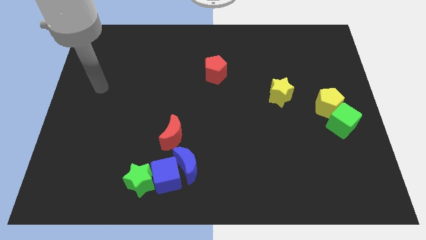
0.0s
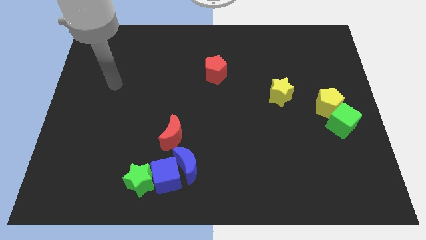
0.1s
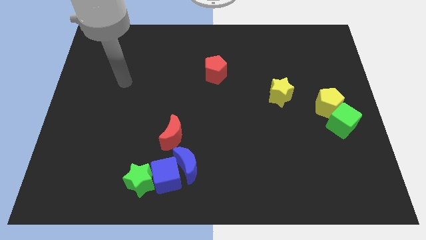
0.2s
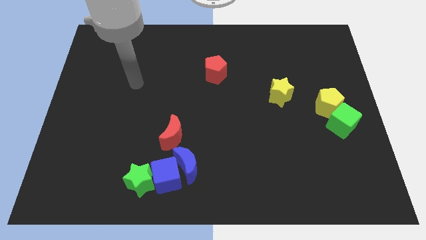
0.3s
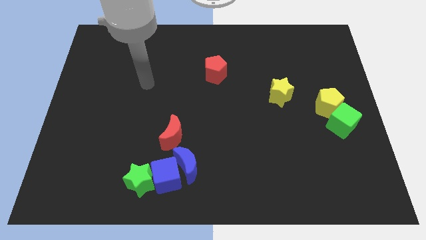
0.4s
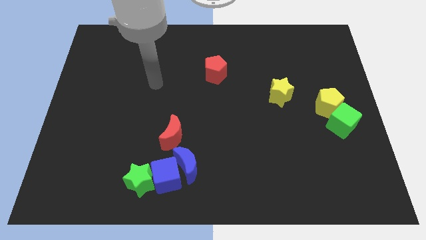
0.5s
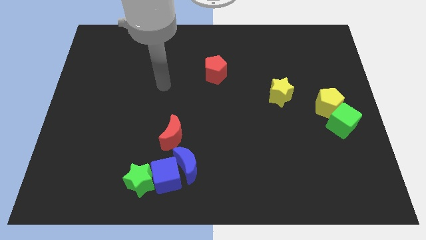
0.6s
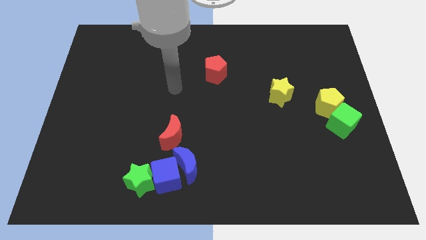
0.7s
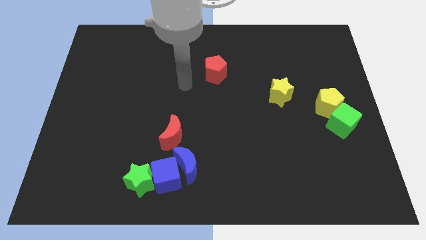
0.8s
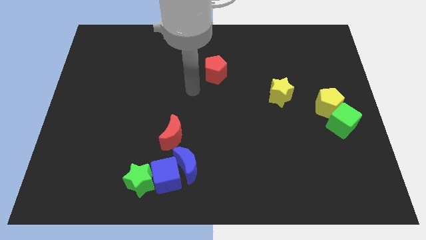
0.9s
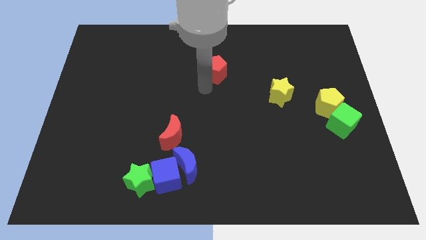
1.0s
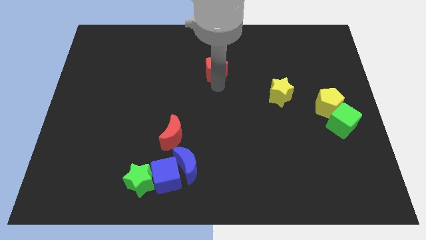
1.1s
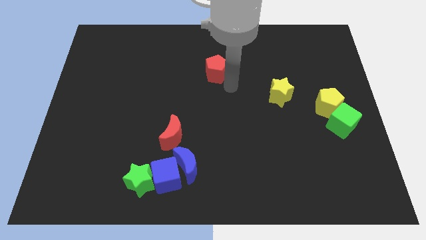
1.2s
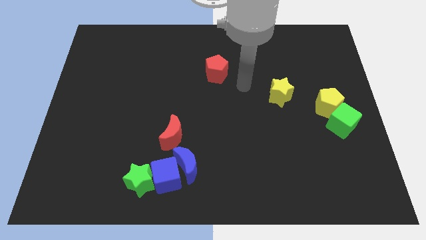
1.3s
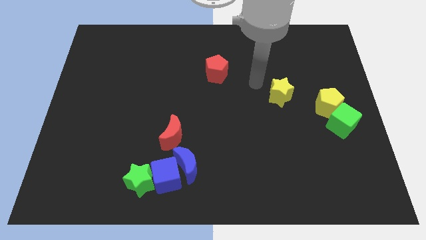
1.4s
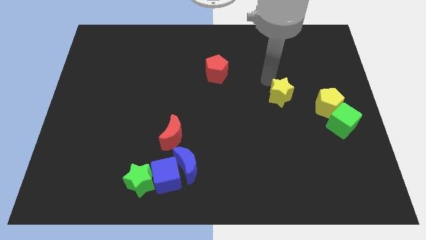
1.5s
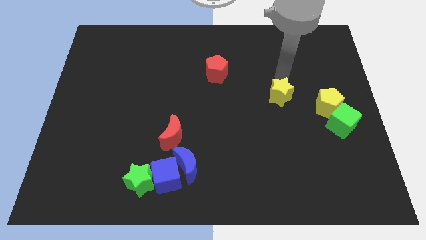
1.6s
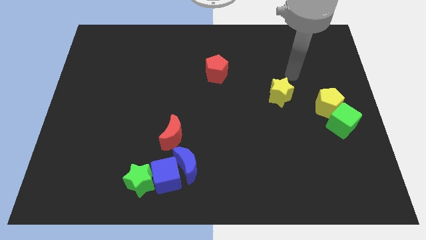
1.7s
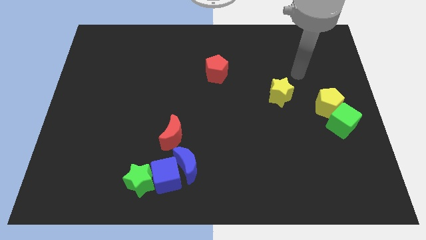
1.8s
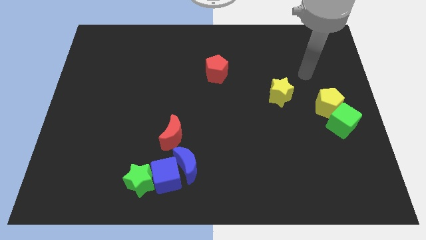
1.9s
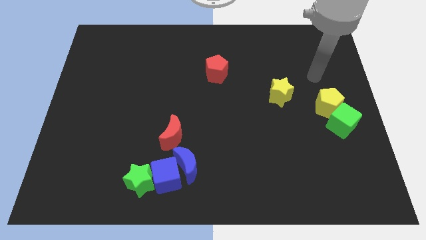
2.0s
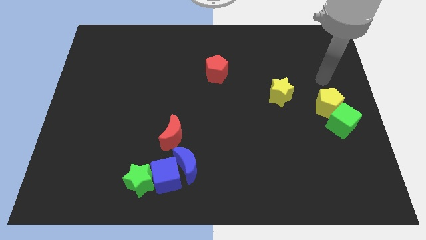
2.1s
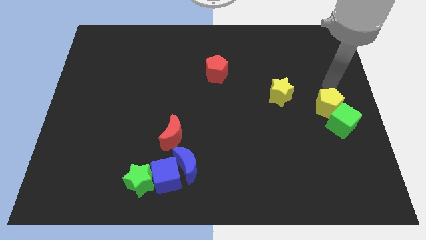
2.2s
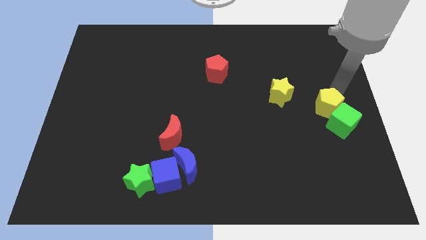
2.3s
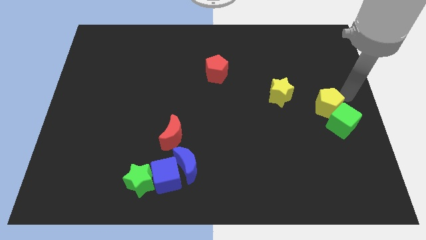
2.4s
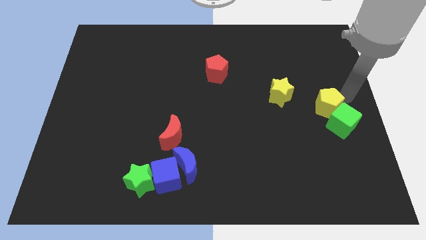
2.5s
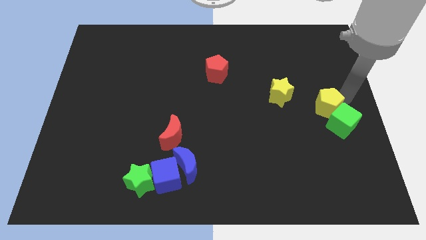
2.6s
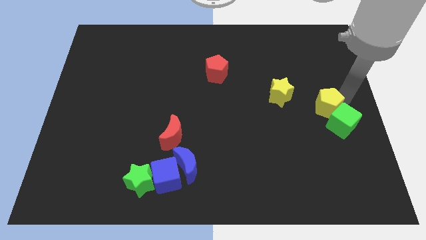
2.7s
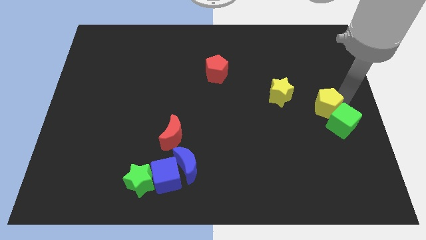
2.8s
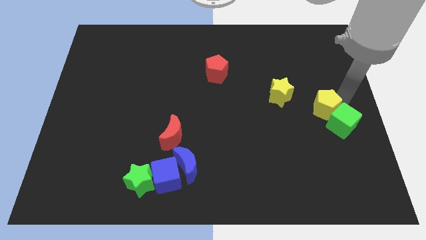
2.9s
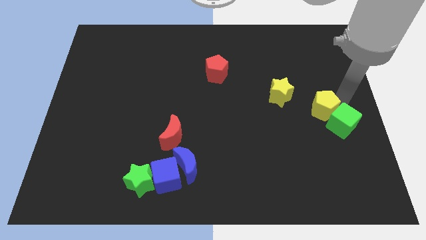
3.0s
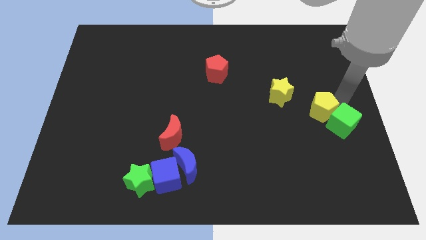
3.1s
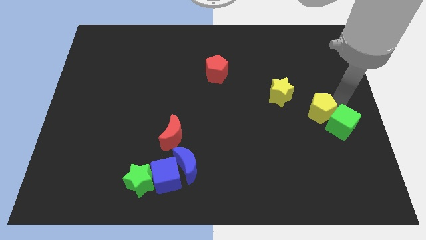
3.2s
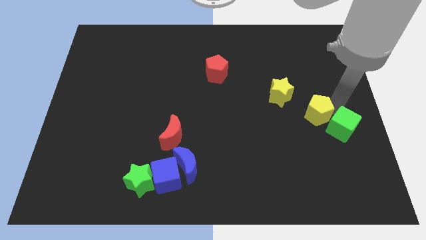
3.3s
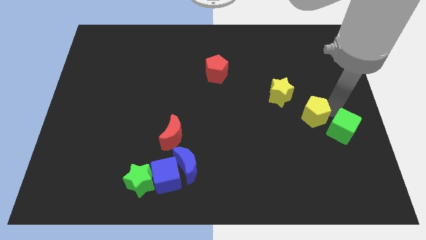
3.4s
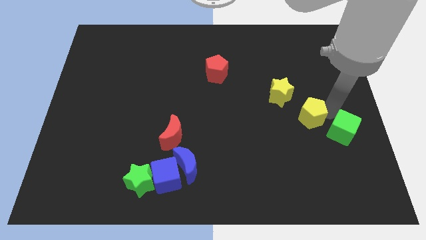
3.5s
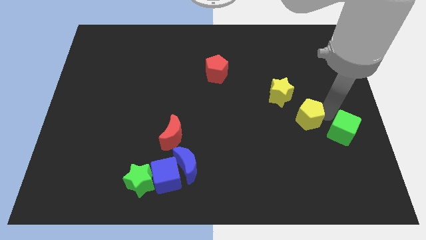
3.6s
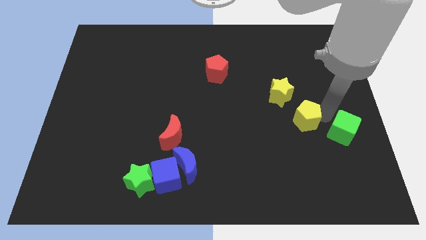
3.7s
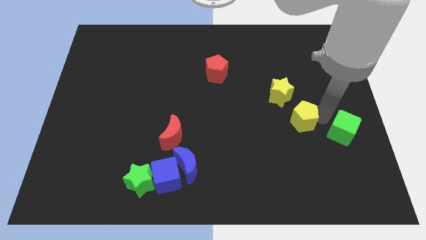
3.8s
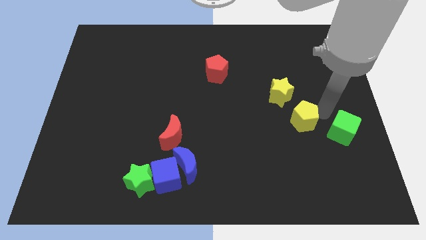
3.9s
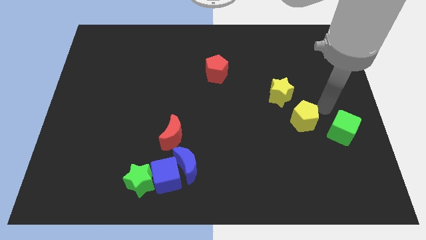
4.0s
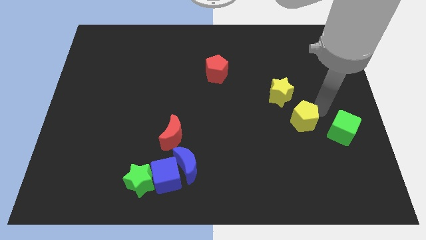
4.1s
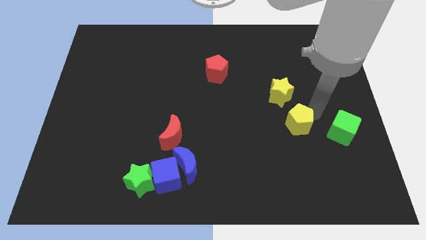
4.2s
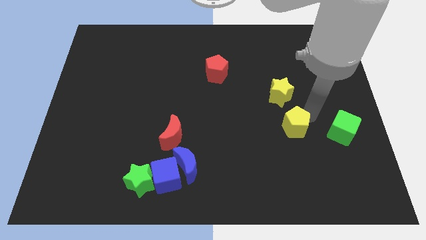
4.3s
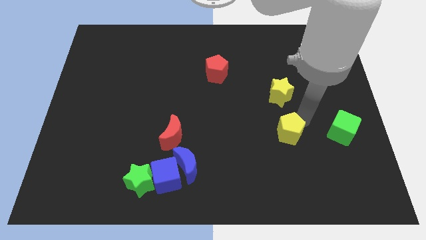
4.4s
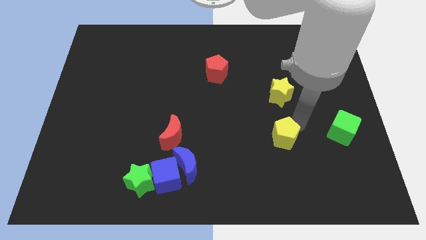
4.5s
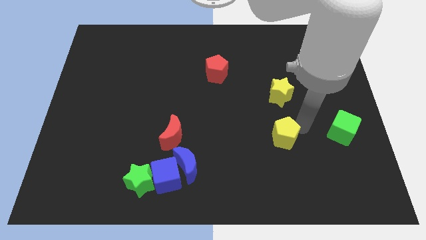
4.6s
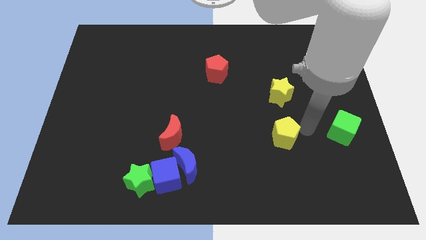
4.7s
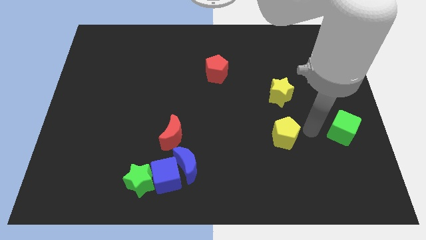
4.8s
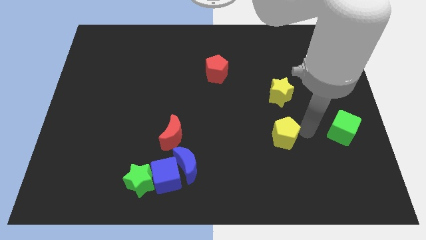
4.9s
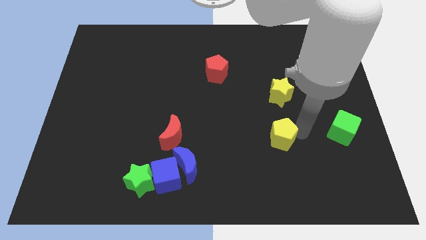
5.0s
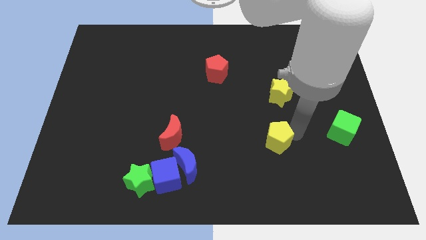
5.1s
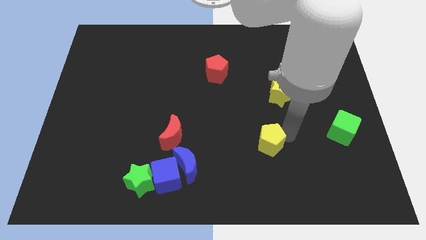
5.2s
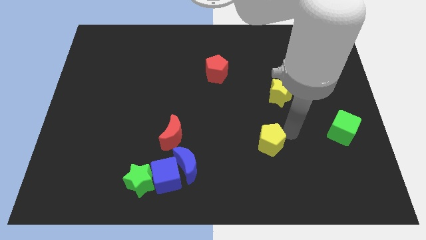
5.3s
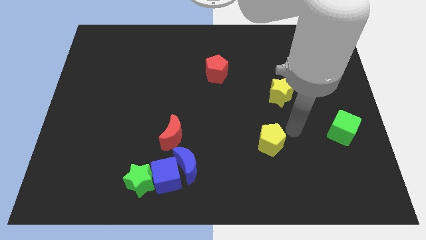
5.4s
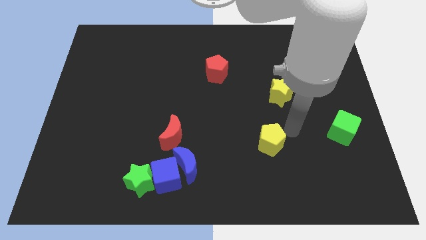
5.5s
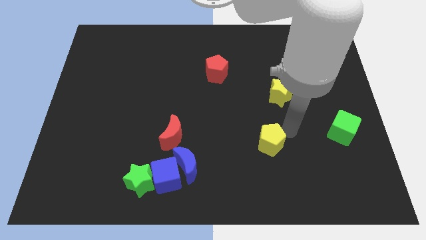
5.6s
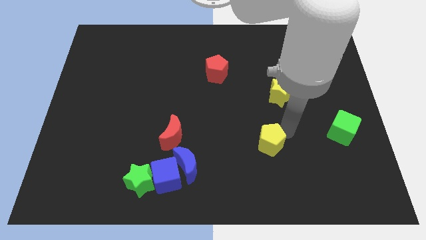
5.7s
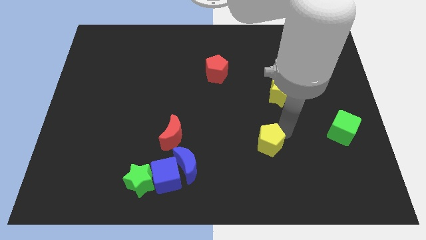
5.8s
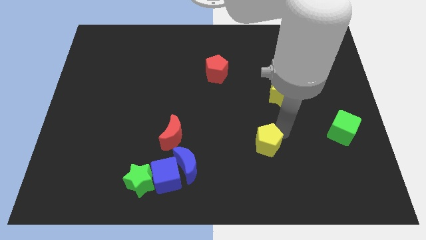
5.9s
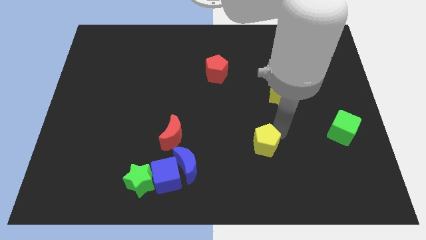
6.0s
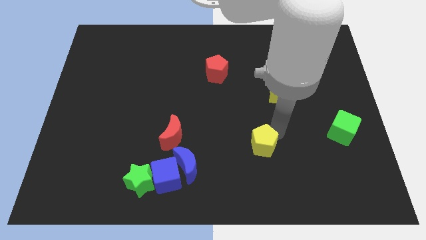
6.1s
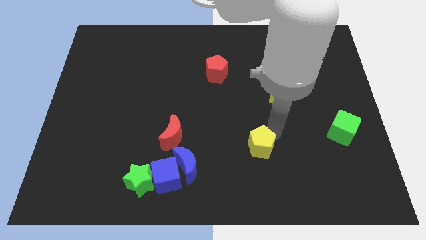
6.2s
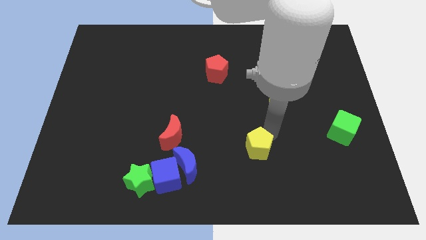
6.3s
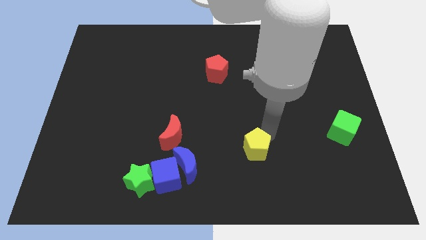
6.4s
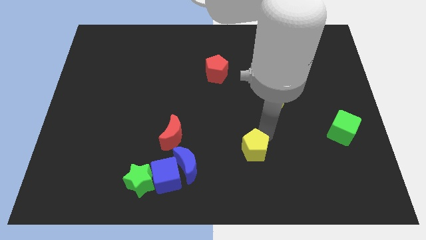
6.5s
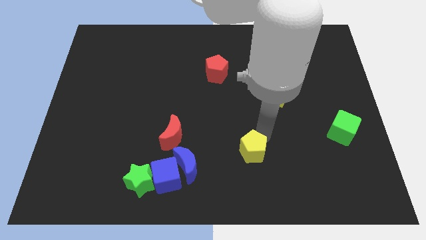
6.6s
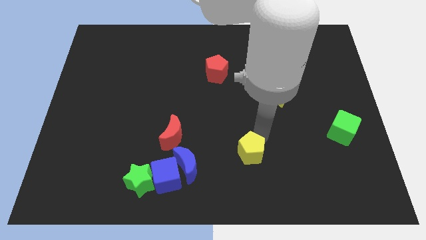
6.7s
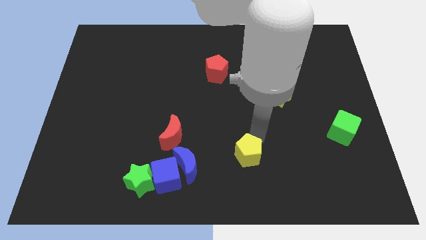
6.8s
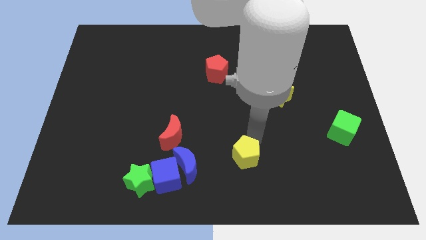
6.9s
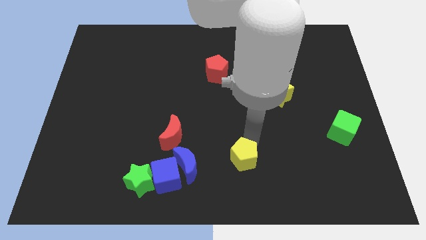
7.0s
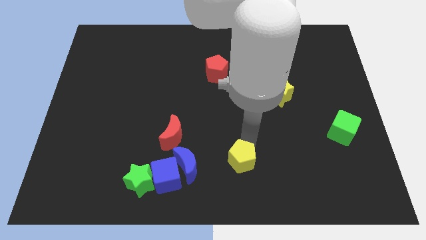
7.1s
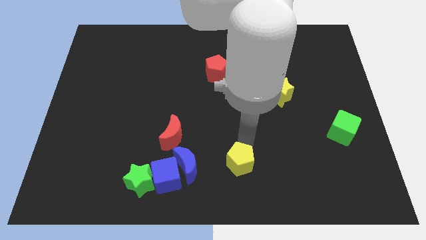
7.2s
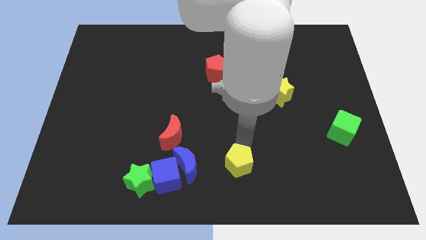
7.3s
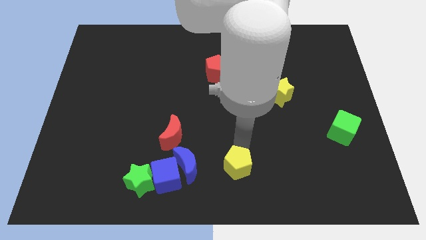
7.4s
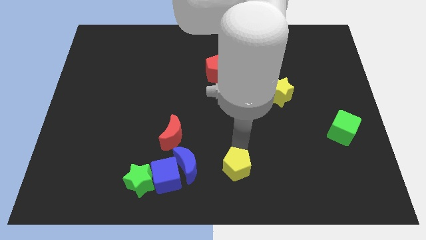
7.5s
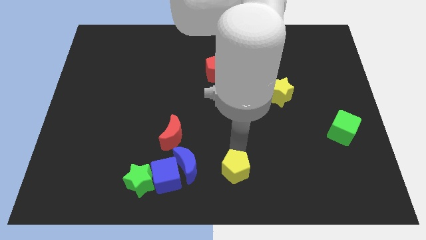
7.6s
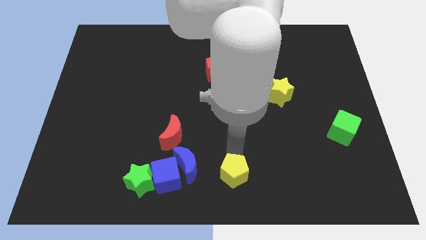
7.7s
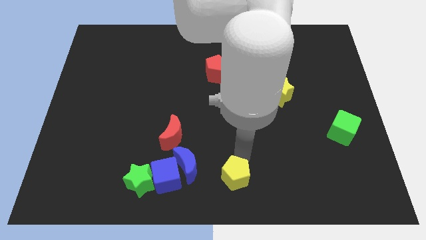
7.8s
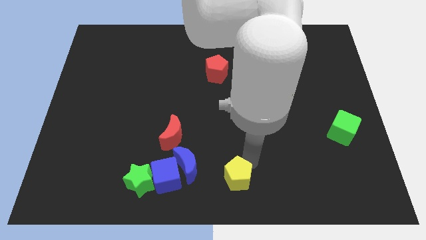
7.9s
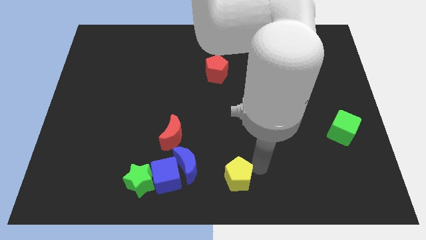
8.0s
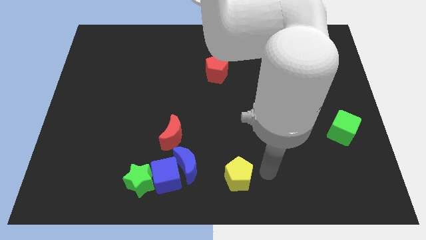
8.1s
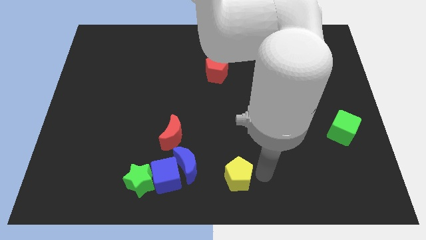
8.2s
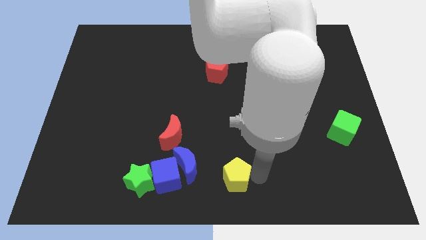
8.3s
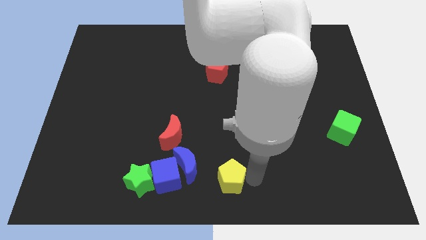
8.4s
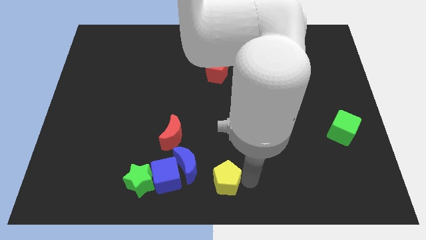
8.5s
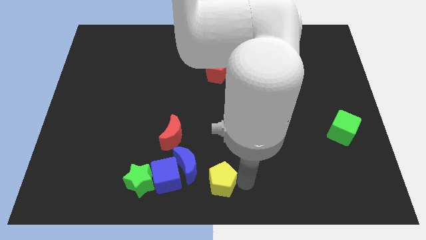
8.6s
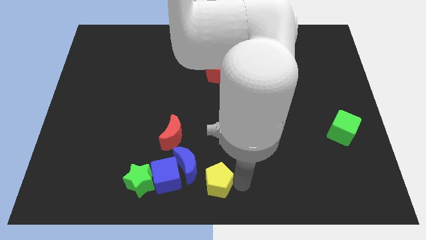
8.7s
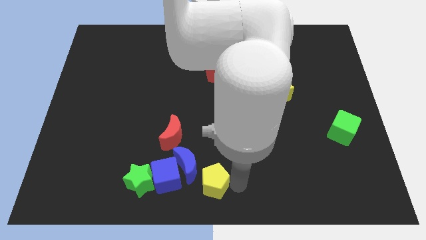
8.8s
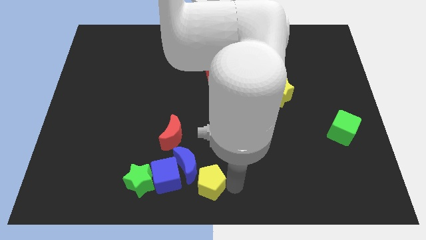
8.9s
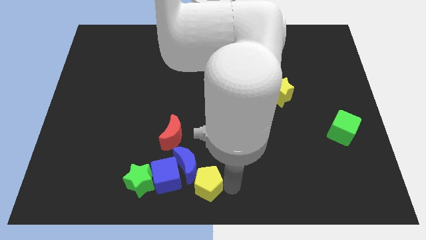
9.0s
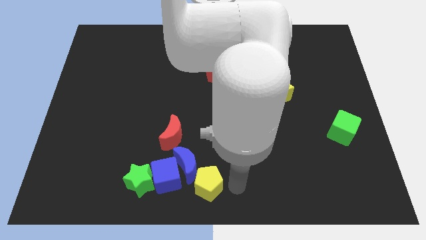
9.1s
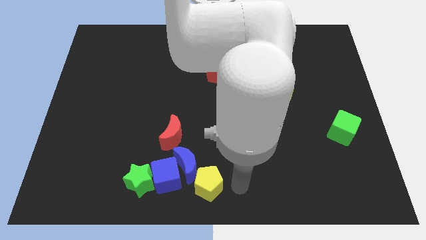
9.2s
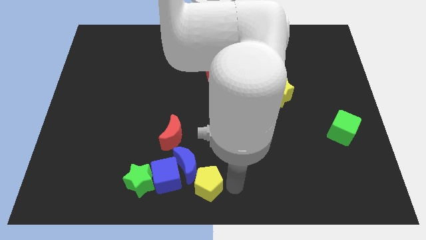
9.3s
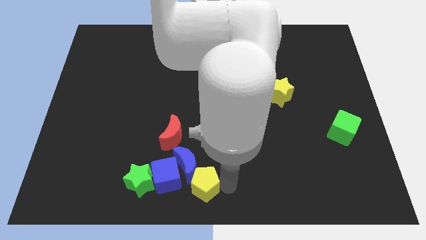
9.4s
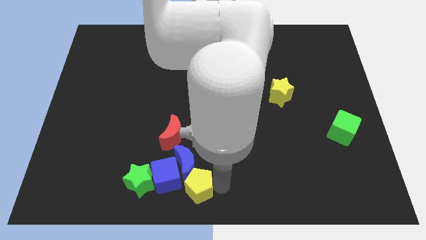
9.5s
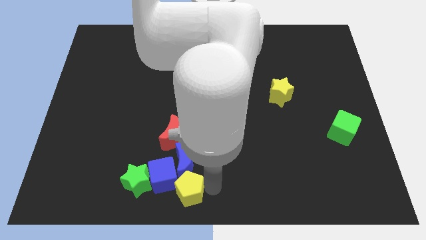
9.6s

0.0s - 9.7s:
slide the yellow pentagon towards the blue cube
